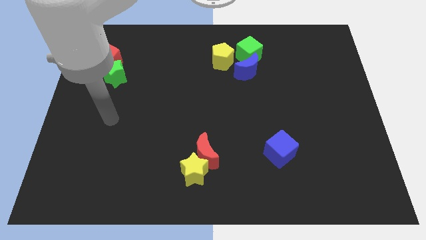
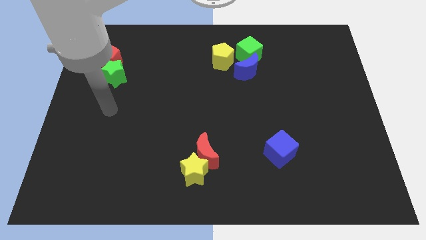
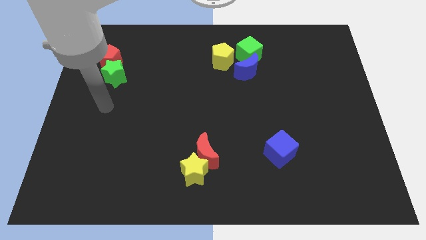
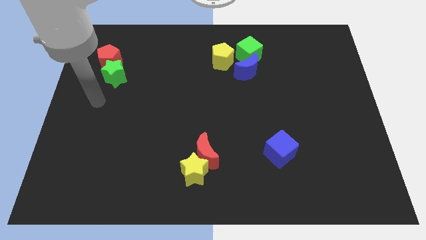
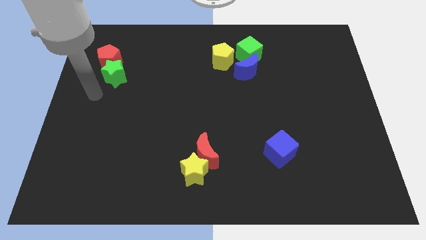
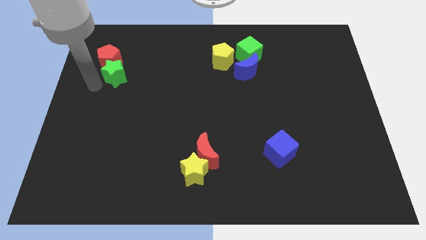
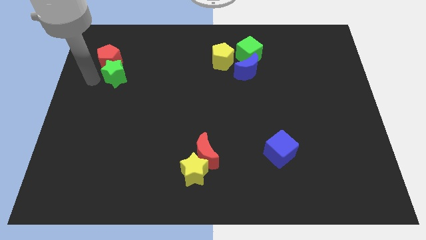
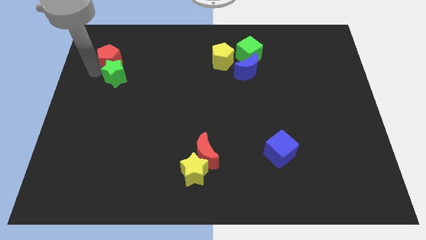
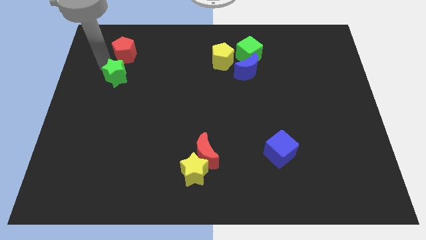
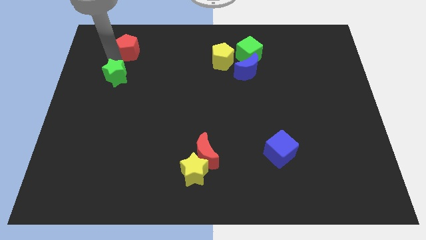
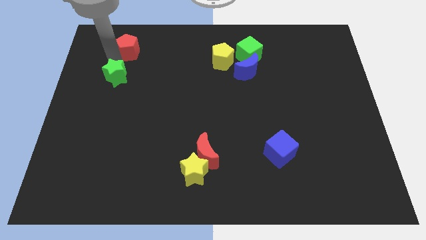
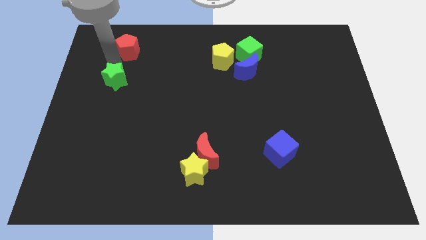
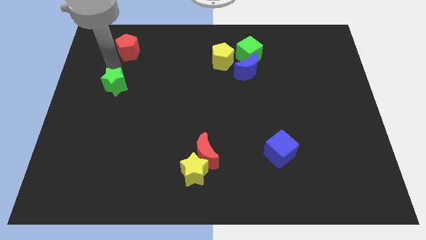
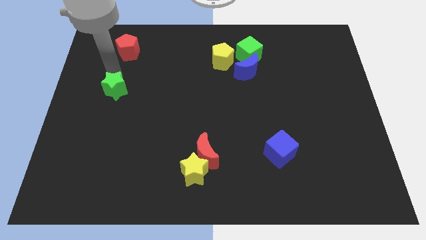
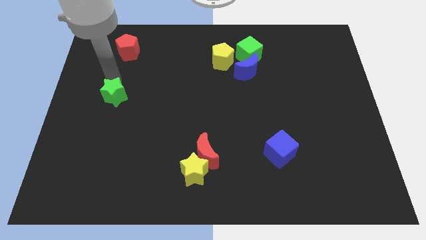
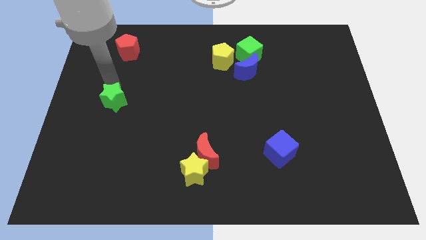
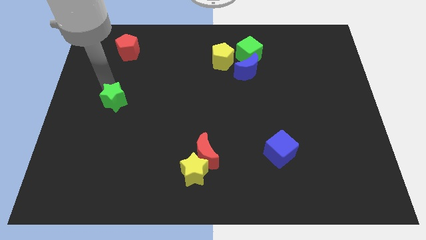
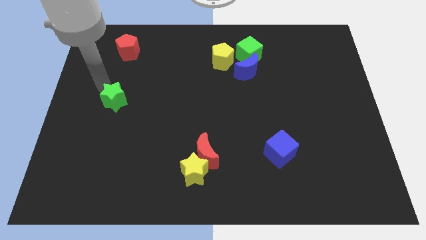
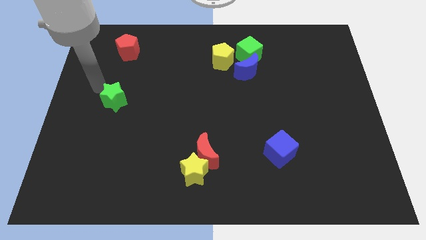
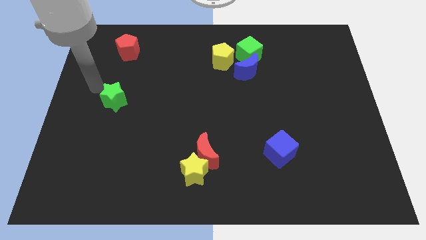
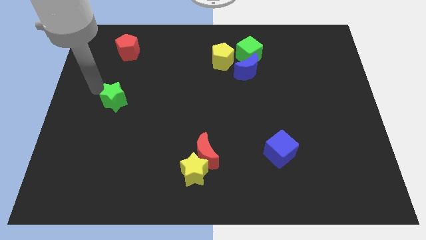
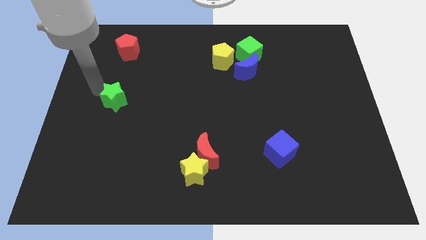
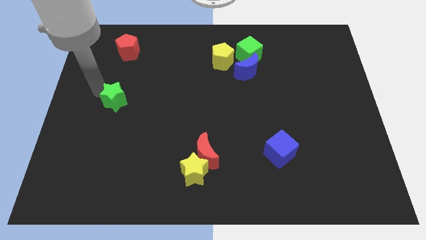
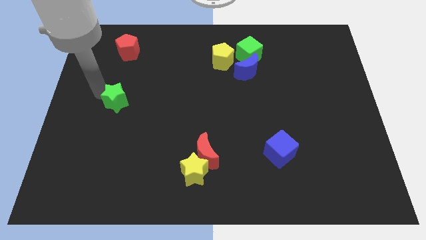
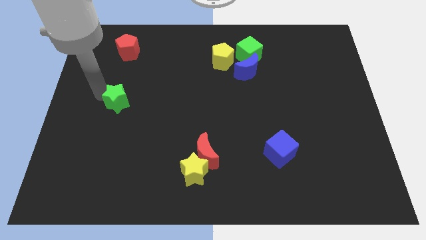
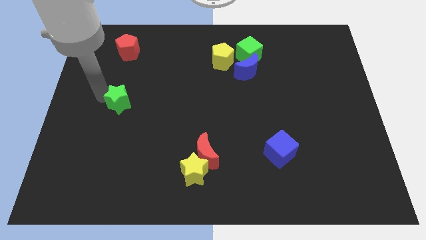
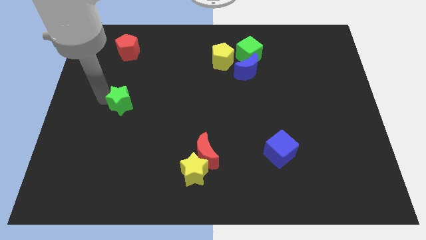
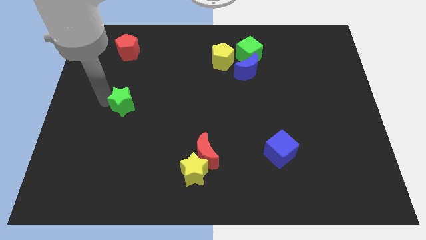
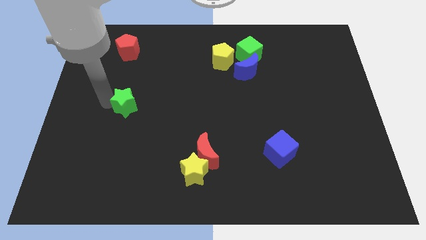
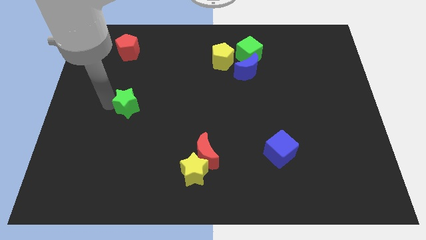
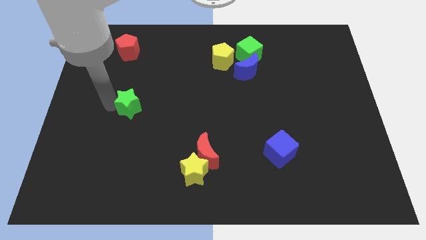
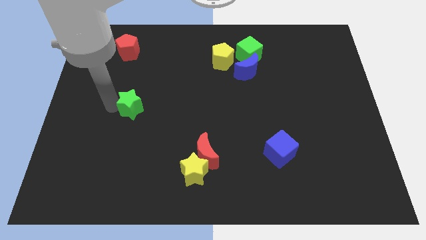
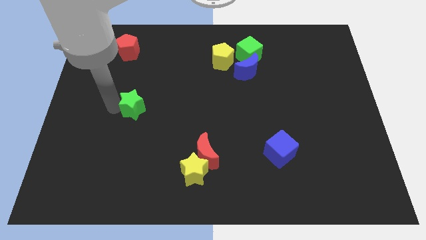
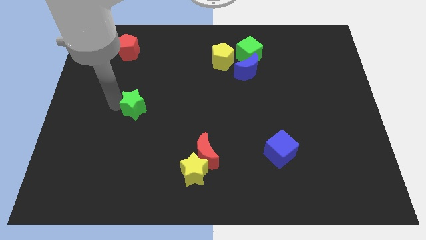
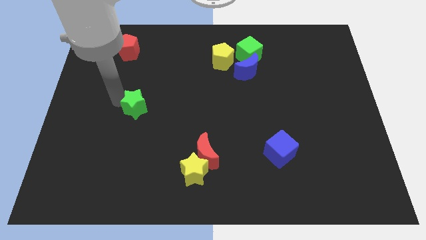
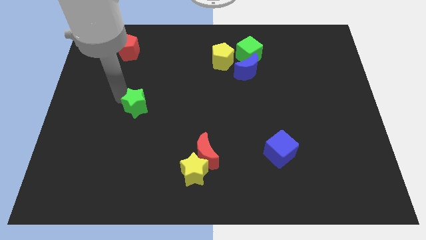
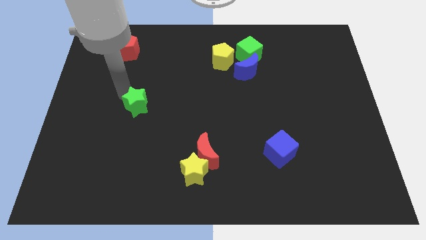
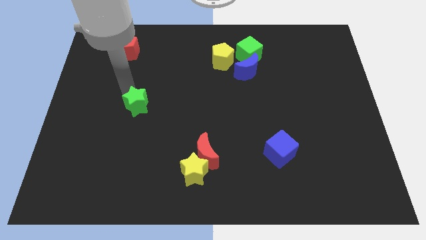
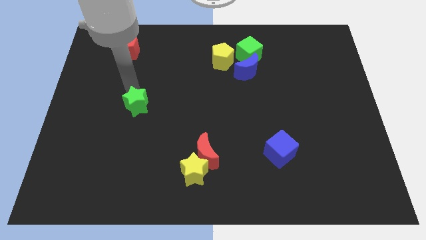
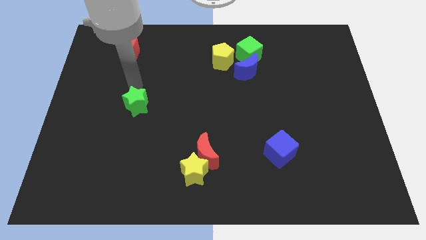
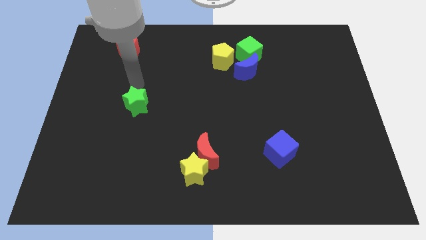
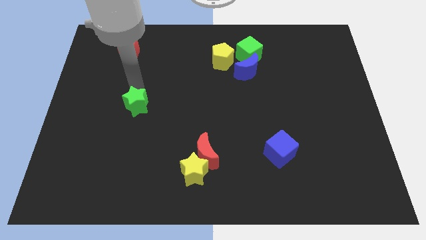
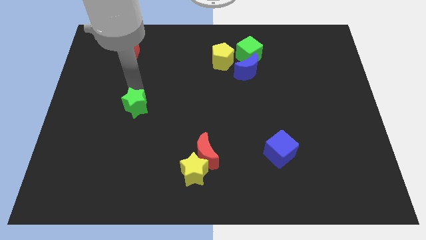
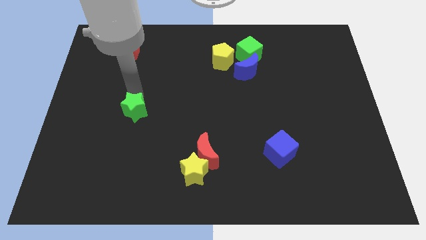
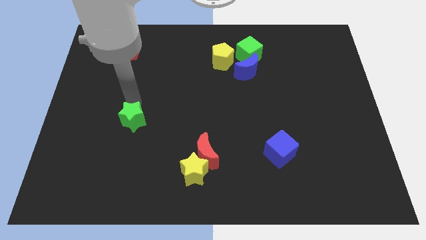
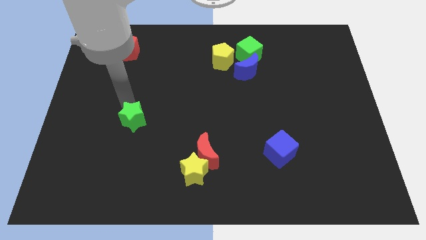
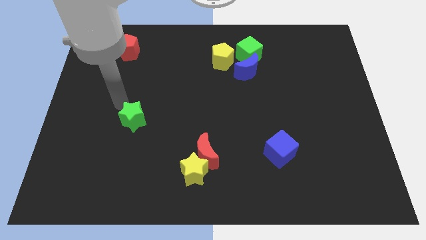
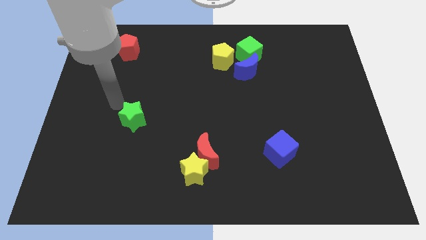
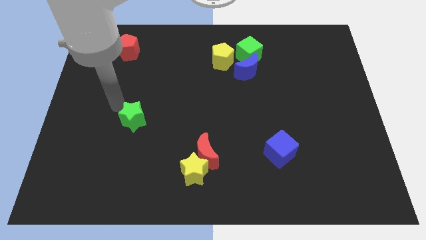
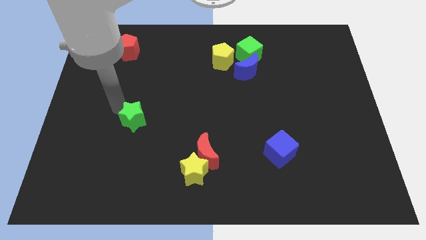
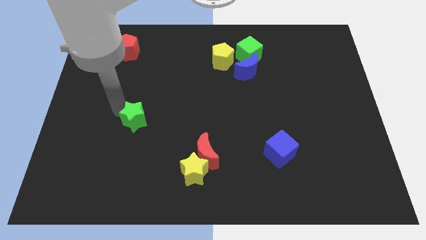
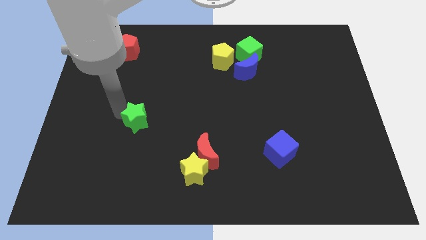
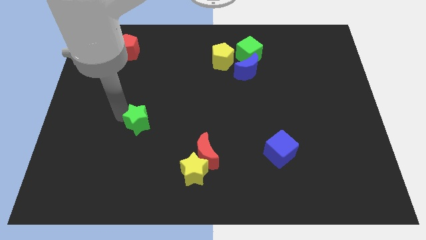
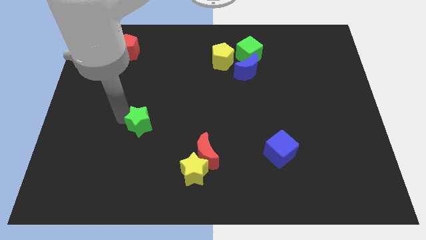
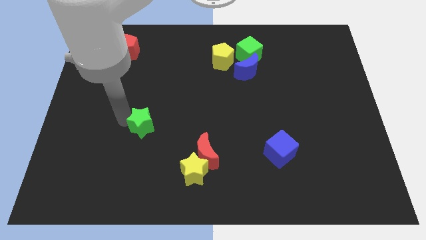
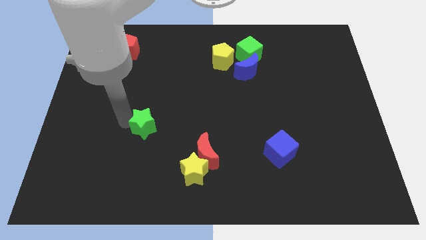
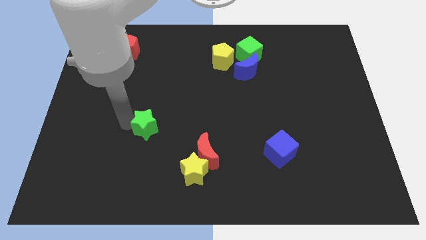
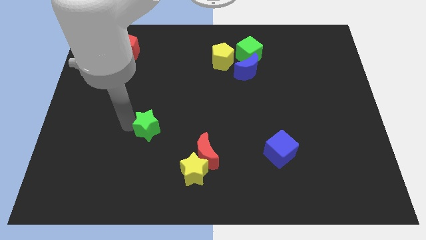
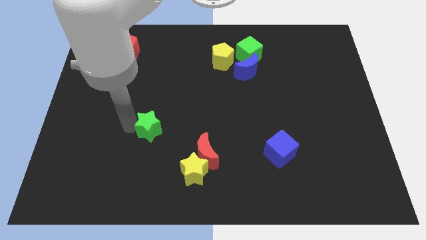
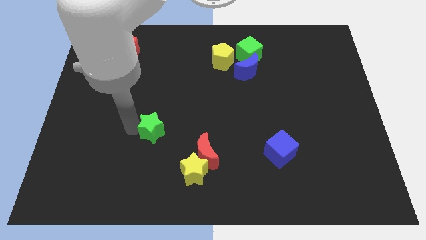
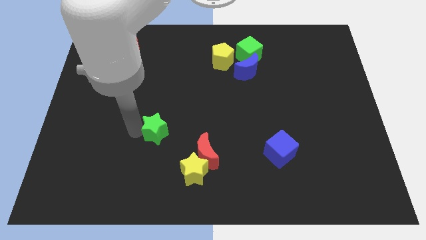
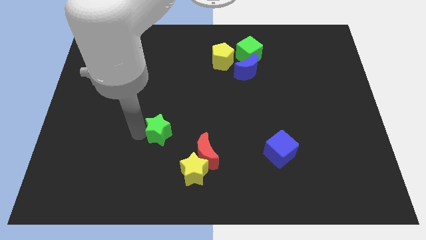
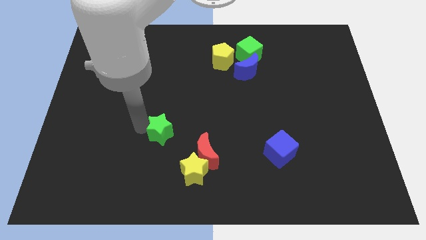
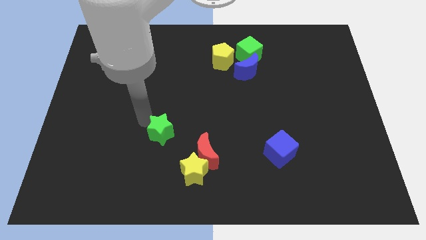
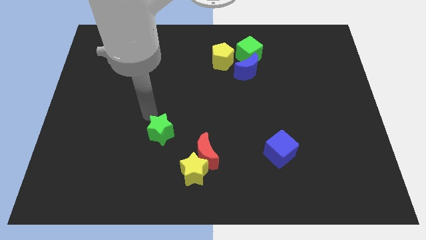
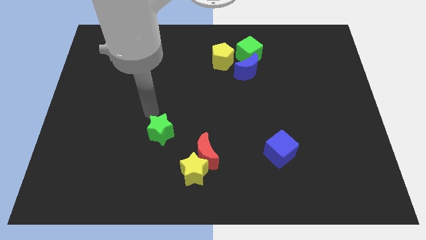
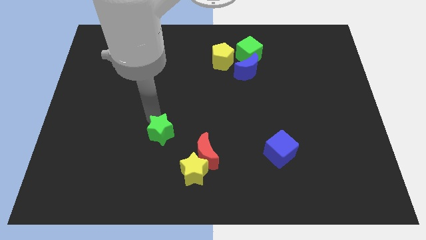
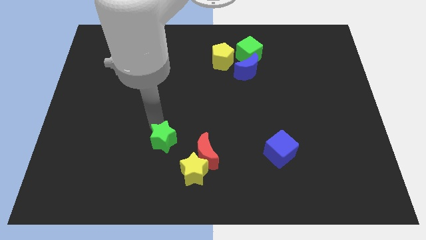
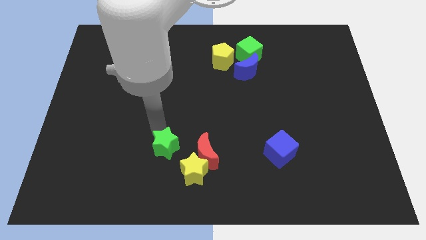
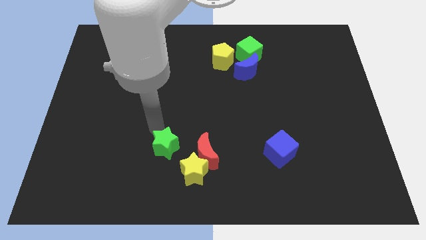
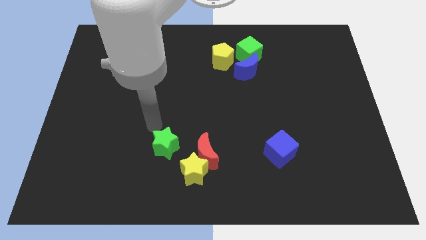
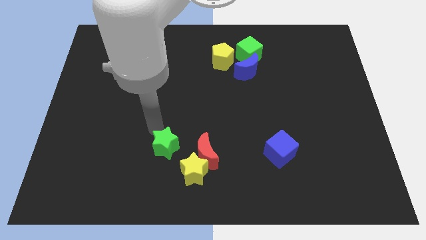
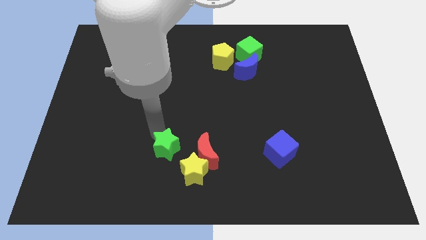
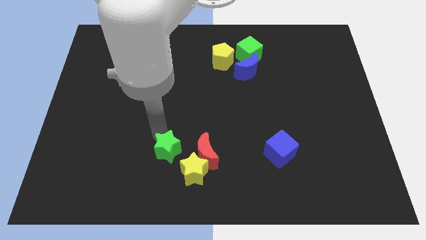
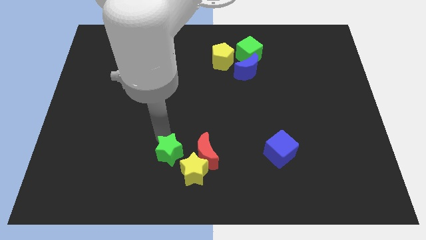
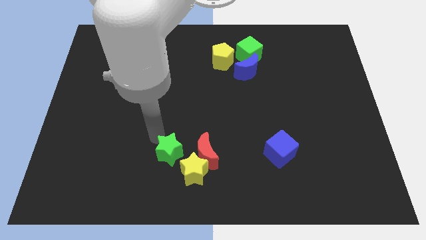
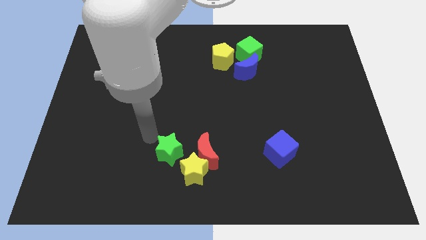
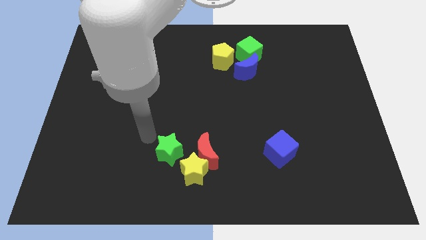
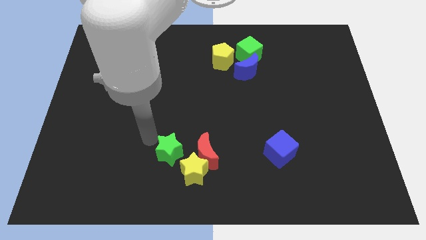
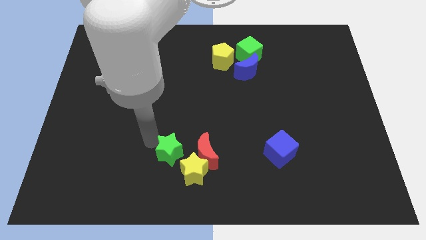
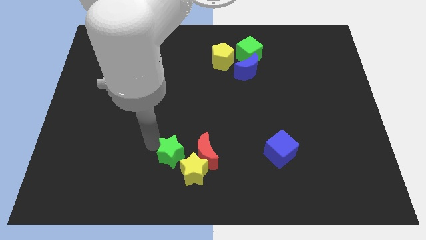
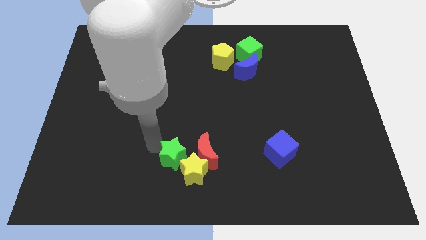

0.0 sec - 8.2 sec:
put the green star towards the yellow star
